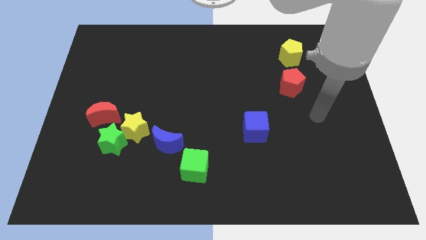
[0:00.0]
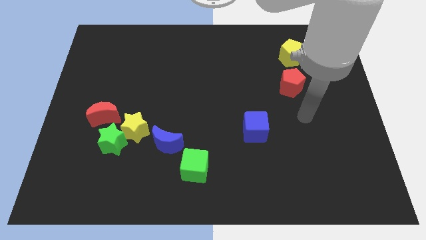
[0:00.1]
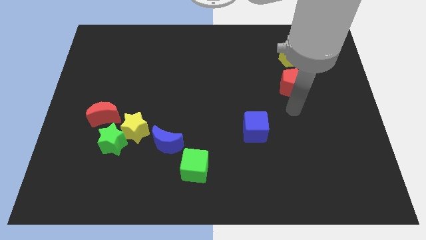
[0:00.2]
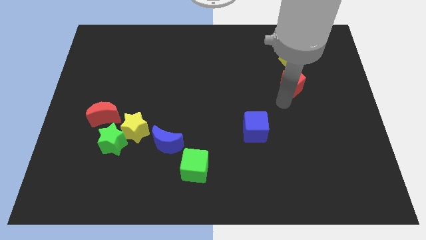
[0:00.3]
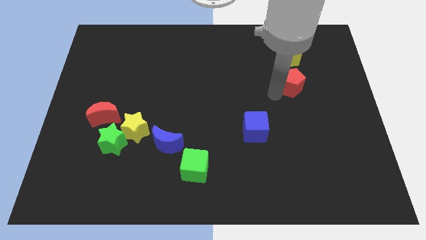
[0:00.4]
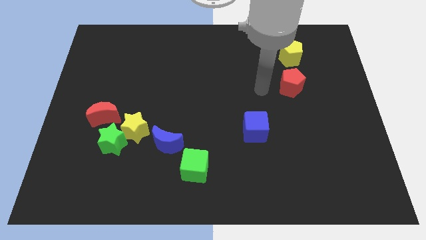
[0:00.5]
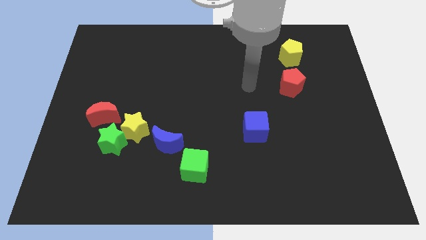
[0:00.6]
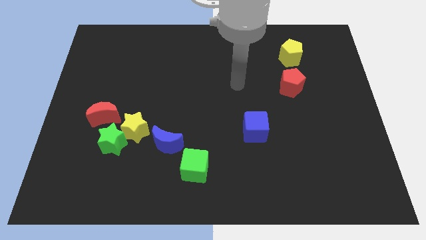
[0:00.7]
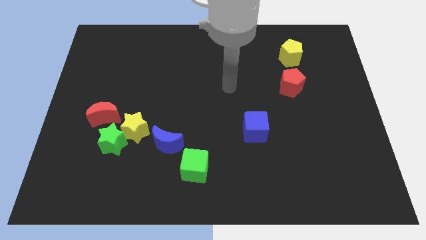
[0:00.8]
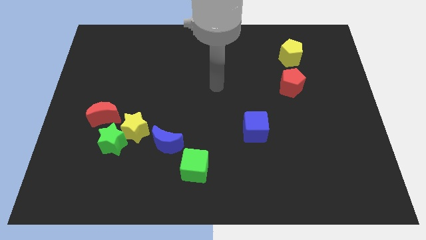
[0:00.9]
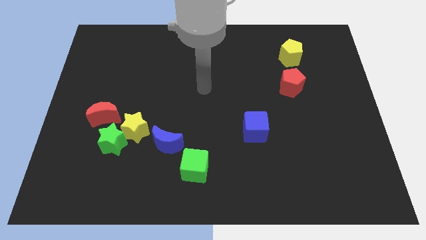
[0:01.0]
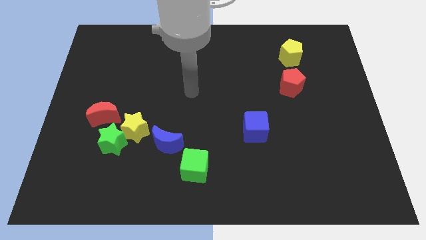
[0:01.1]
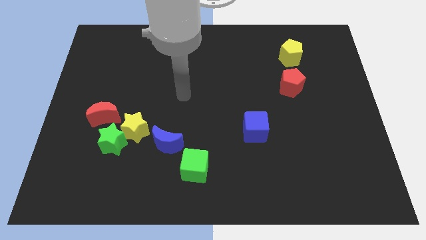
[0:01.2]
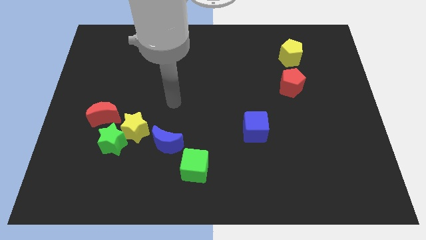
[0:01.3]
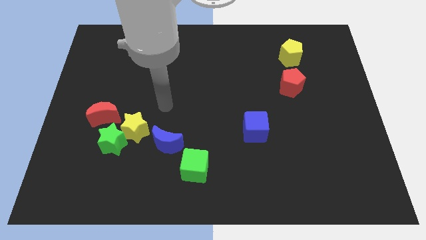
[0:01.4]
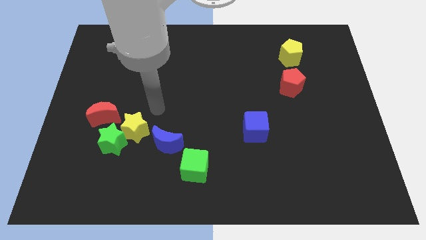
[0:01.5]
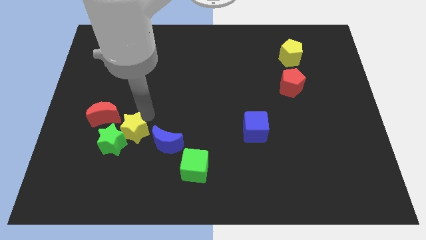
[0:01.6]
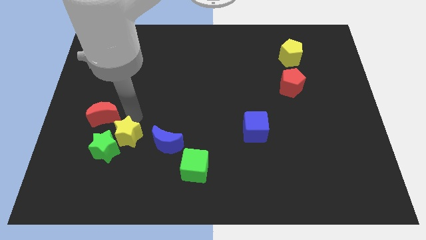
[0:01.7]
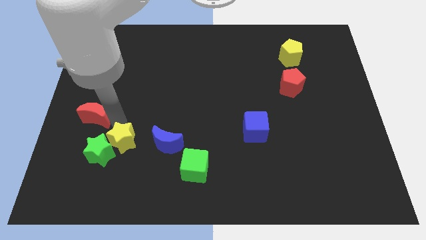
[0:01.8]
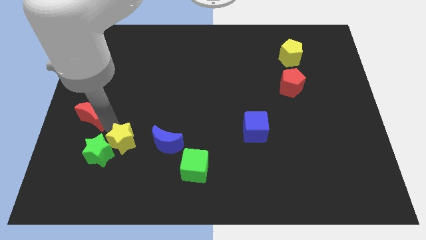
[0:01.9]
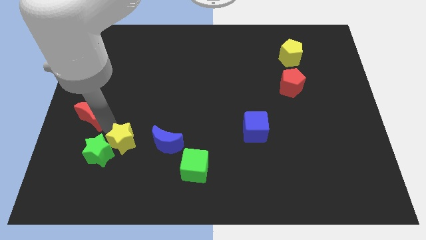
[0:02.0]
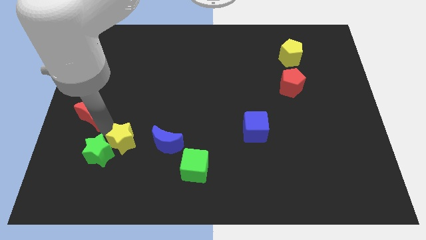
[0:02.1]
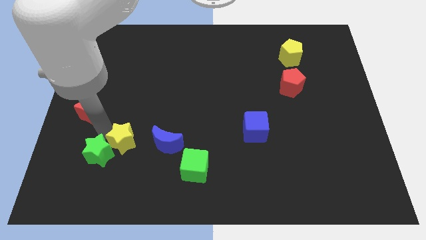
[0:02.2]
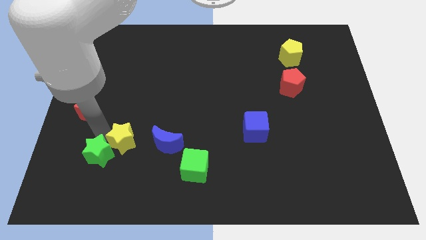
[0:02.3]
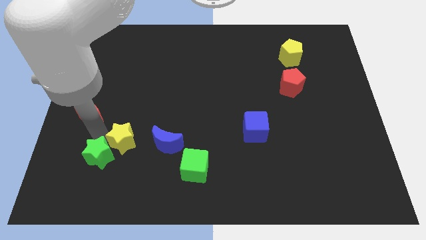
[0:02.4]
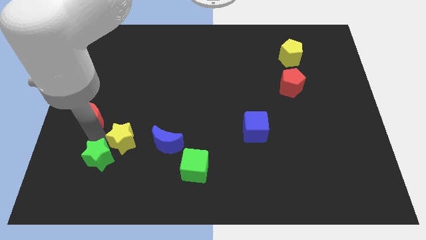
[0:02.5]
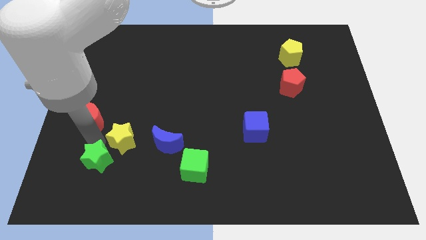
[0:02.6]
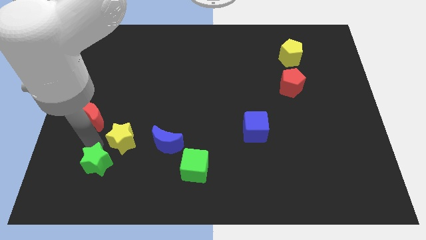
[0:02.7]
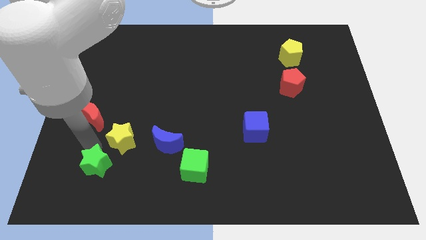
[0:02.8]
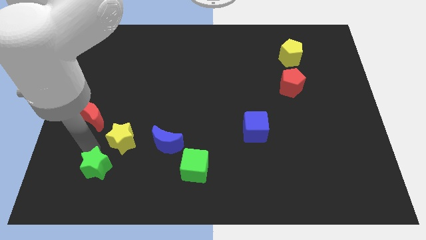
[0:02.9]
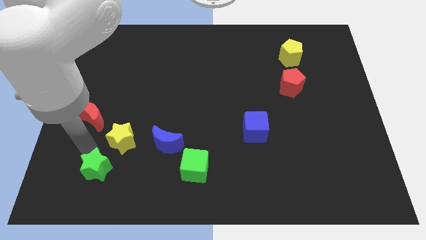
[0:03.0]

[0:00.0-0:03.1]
separate the green star from the yellow star and red moon

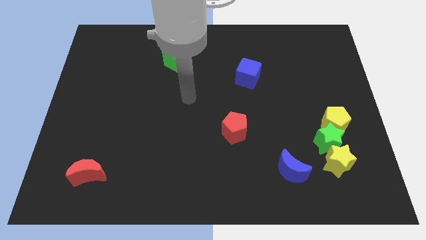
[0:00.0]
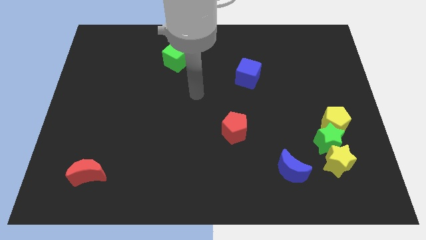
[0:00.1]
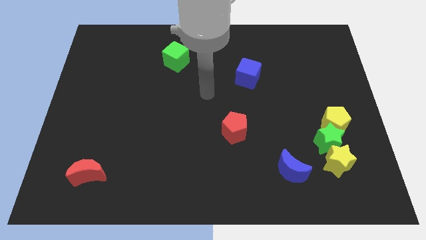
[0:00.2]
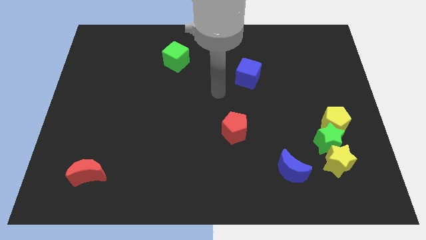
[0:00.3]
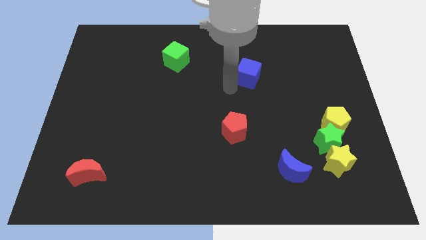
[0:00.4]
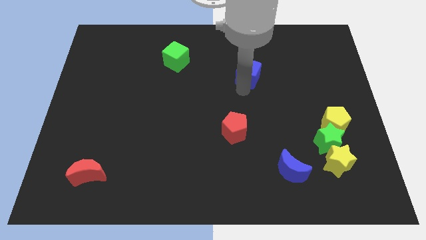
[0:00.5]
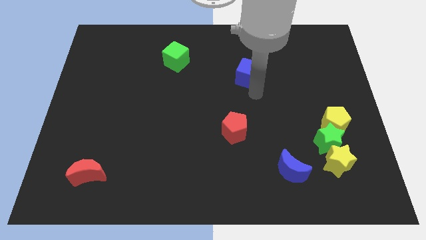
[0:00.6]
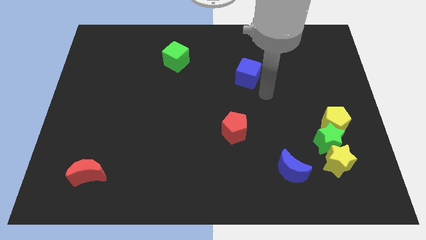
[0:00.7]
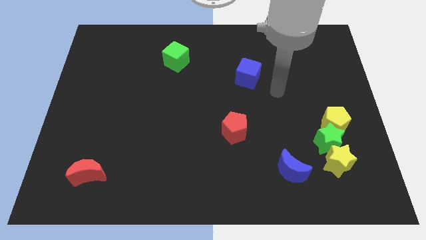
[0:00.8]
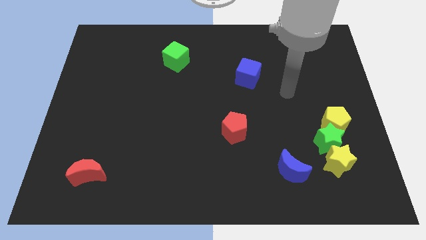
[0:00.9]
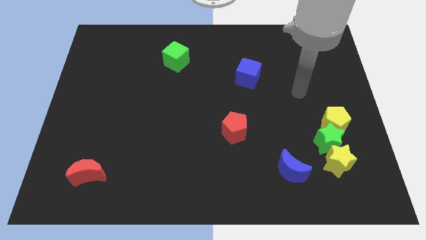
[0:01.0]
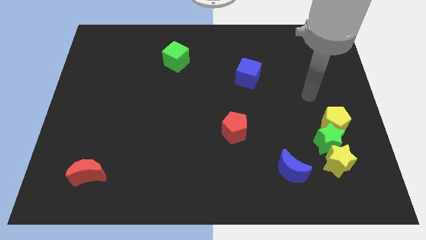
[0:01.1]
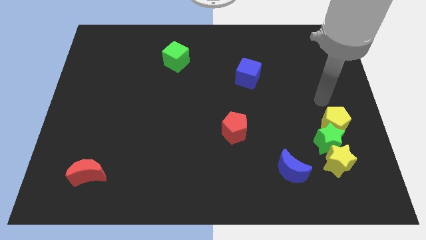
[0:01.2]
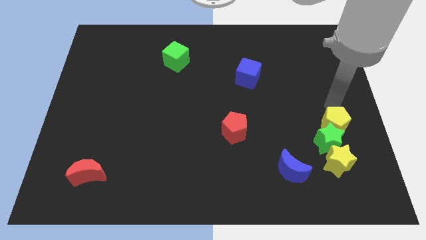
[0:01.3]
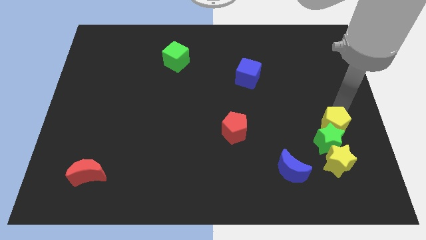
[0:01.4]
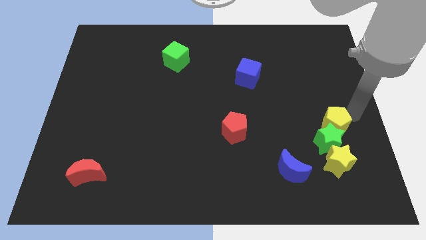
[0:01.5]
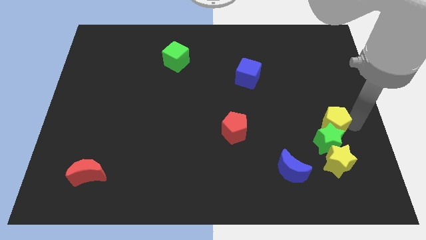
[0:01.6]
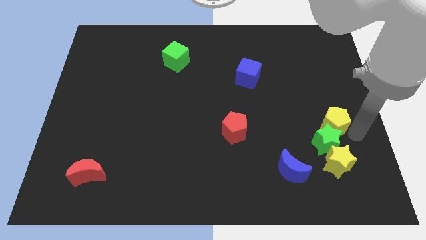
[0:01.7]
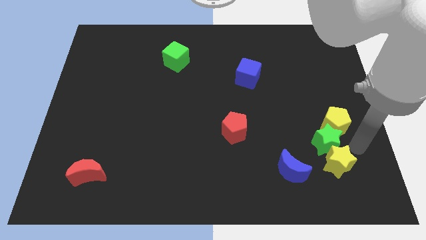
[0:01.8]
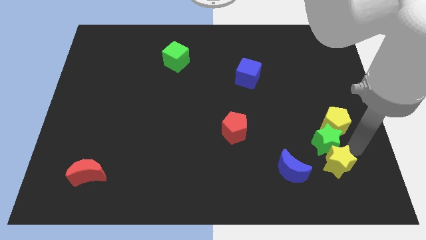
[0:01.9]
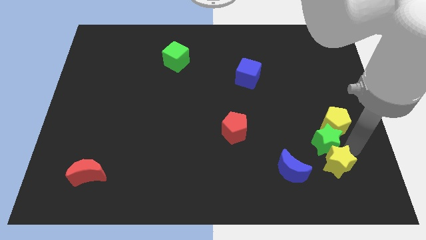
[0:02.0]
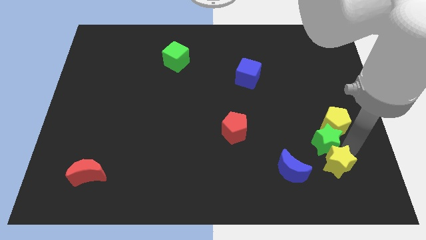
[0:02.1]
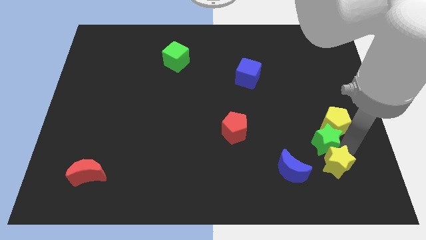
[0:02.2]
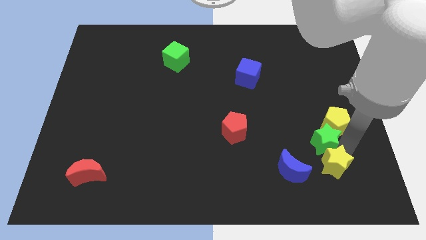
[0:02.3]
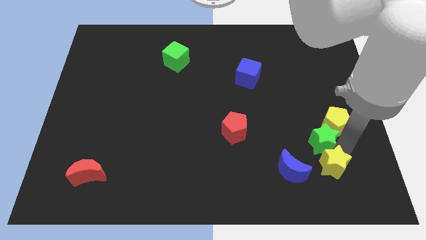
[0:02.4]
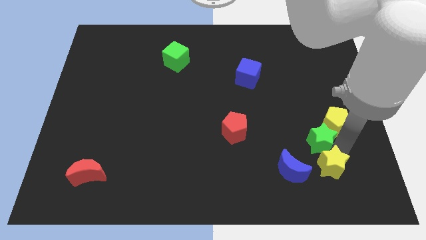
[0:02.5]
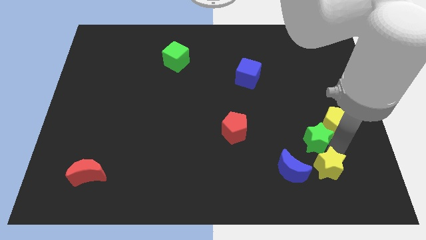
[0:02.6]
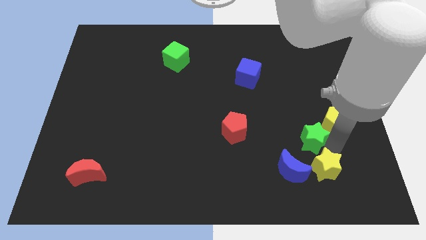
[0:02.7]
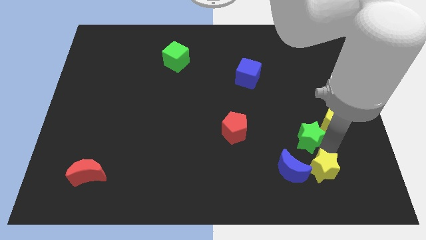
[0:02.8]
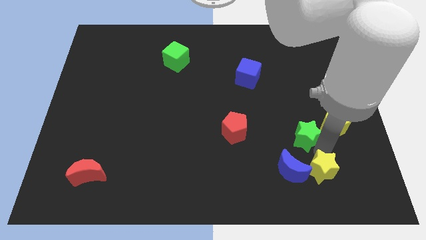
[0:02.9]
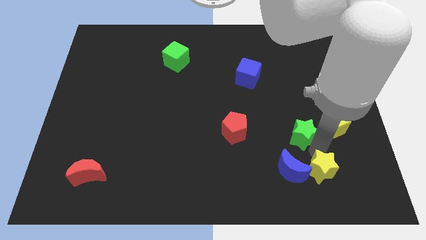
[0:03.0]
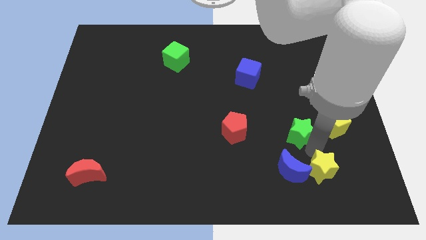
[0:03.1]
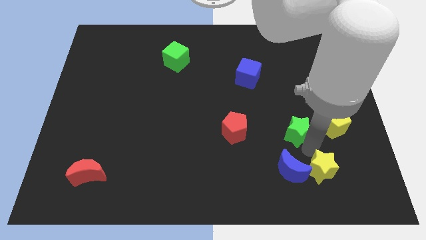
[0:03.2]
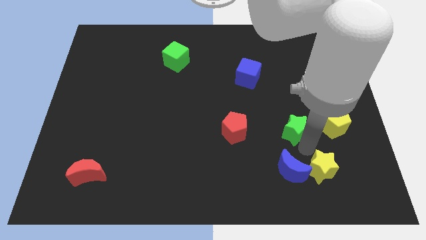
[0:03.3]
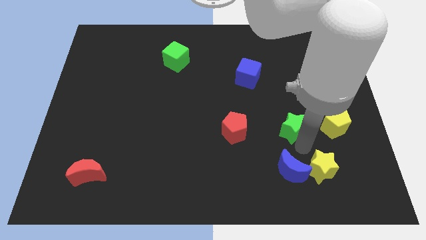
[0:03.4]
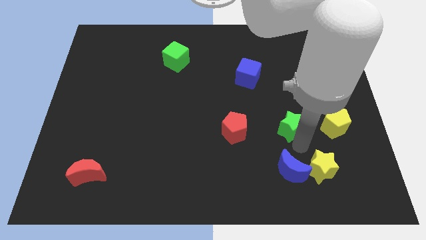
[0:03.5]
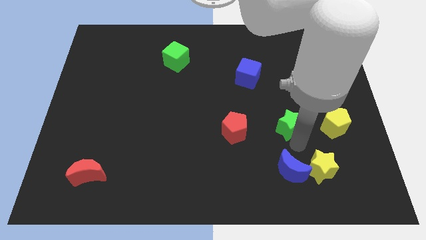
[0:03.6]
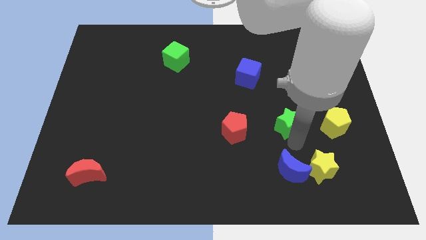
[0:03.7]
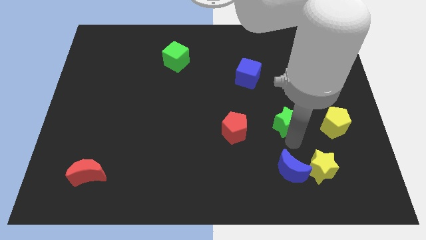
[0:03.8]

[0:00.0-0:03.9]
pull the green star apart from the yellow star and yellow pentagon

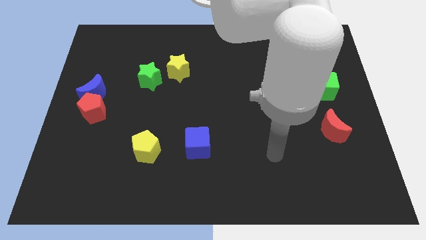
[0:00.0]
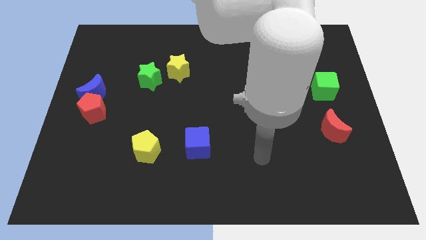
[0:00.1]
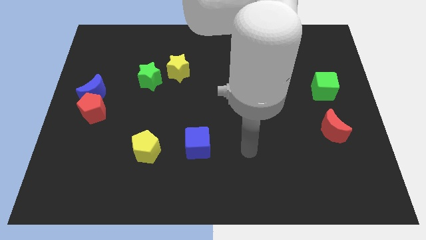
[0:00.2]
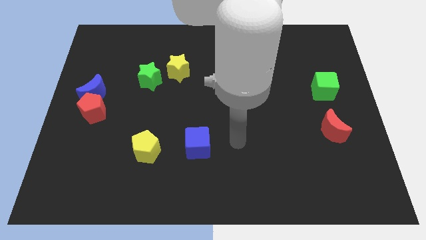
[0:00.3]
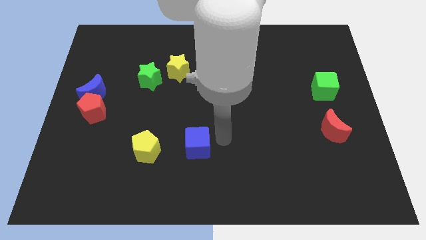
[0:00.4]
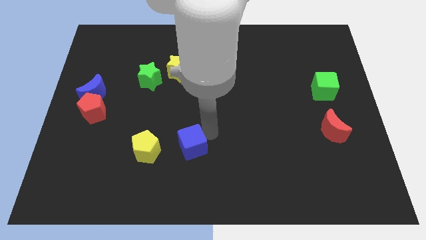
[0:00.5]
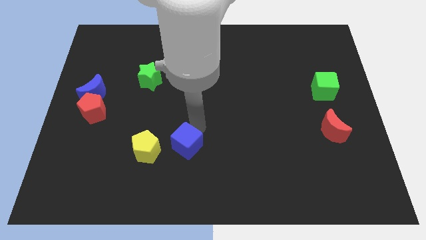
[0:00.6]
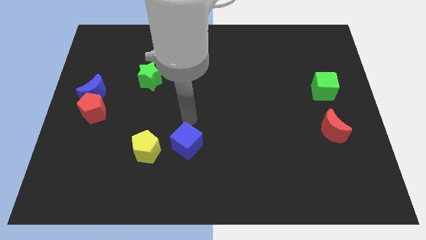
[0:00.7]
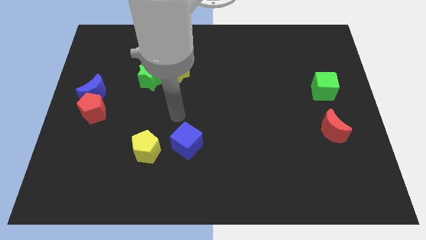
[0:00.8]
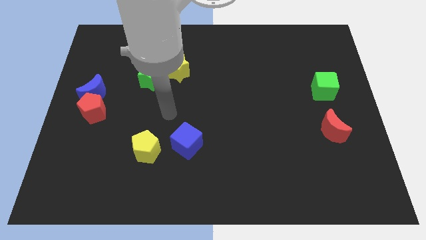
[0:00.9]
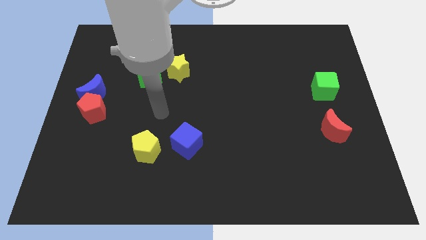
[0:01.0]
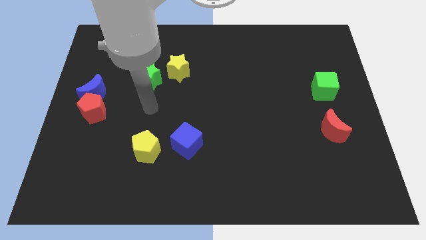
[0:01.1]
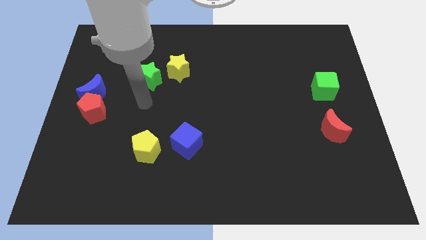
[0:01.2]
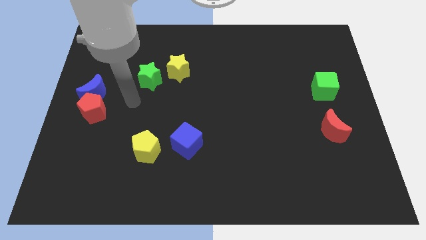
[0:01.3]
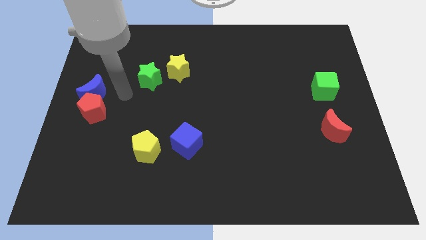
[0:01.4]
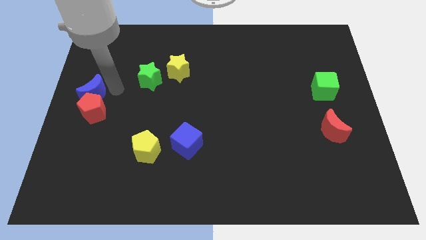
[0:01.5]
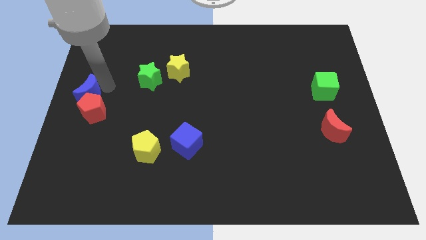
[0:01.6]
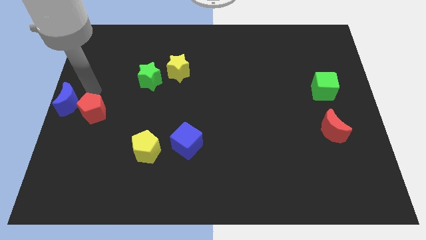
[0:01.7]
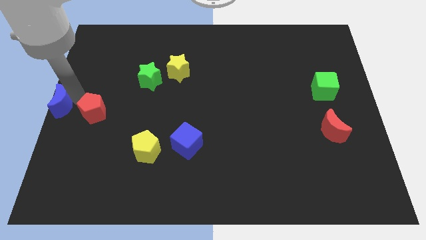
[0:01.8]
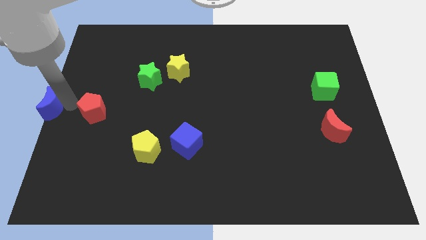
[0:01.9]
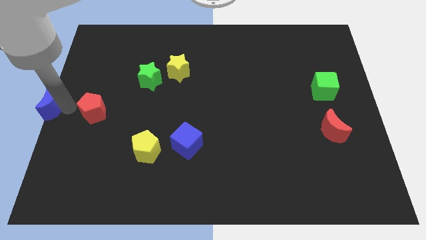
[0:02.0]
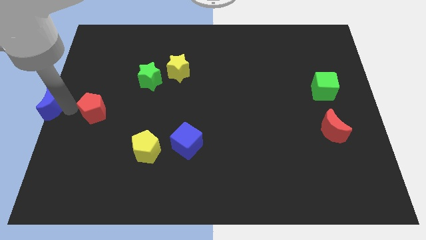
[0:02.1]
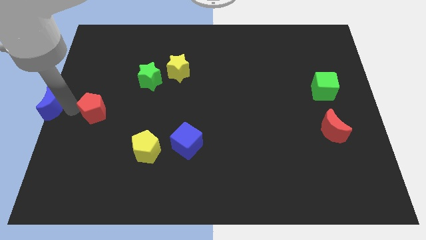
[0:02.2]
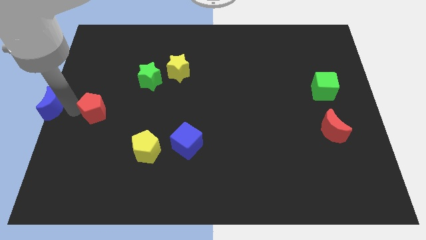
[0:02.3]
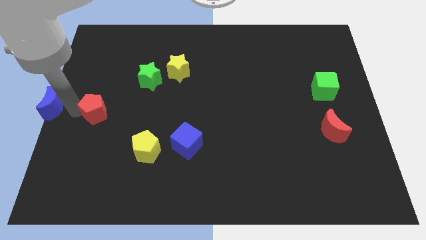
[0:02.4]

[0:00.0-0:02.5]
move the red pentagon away from the blue moon
